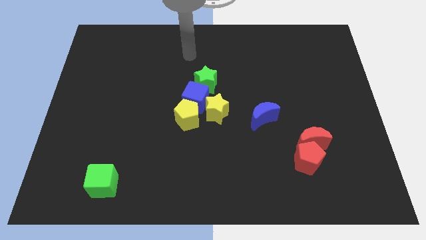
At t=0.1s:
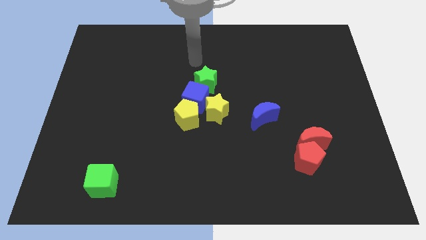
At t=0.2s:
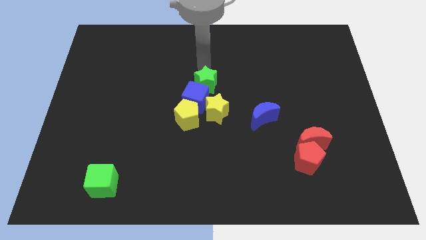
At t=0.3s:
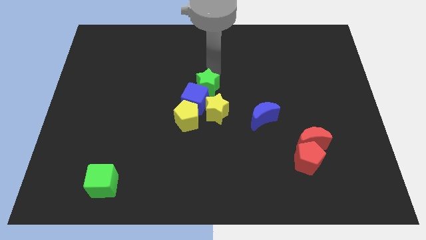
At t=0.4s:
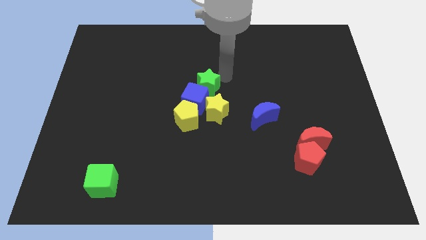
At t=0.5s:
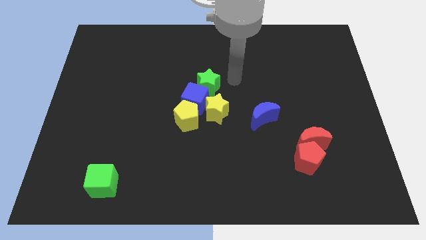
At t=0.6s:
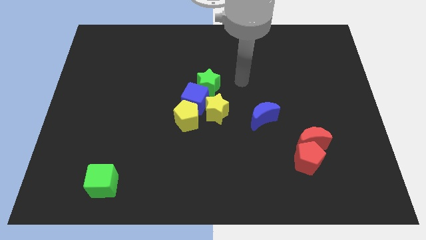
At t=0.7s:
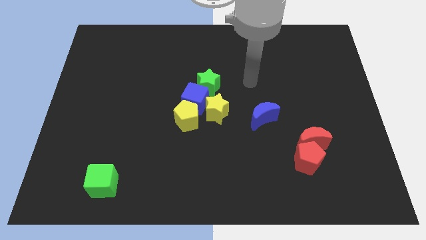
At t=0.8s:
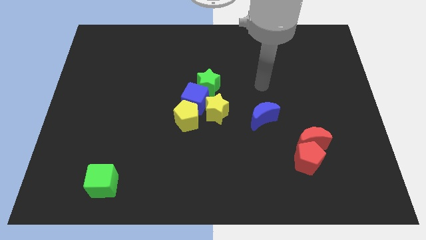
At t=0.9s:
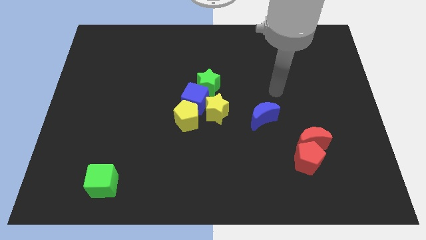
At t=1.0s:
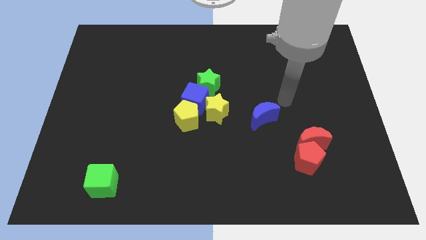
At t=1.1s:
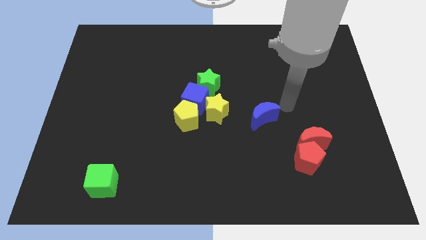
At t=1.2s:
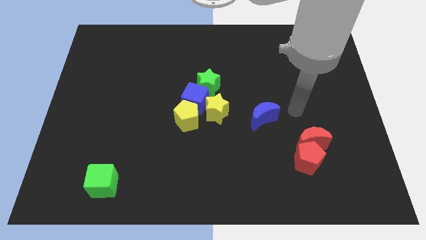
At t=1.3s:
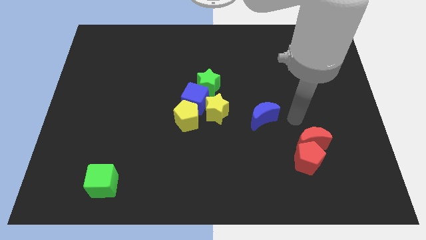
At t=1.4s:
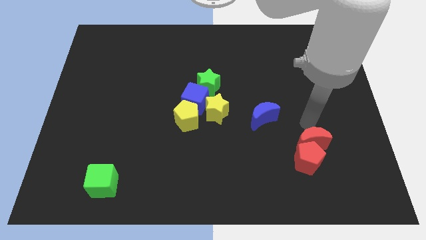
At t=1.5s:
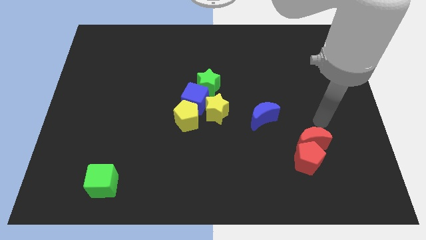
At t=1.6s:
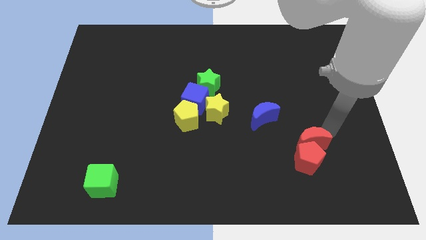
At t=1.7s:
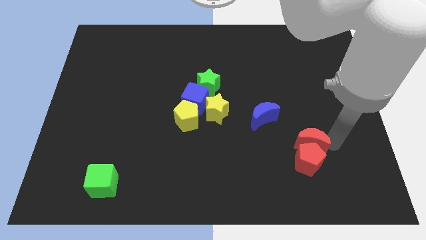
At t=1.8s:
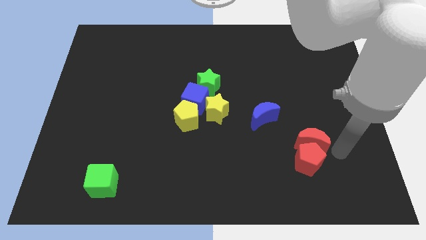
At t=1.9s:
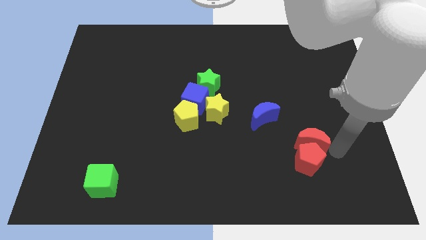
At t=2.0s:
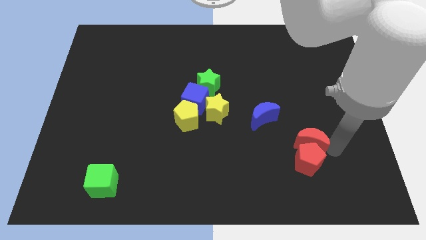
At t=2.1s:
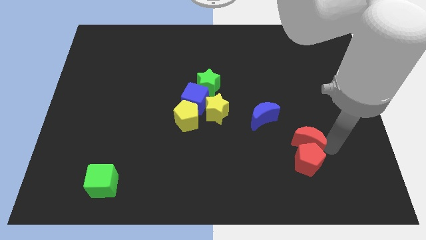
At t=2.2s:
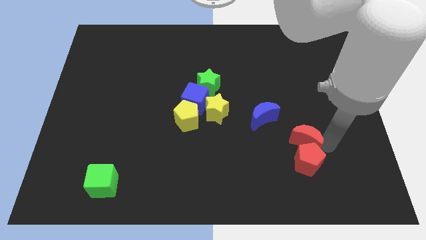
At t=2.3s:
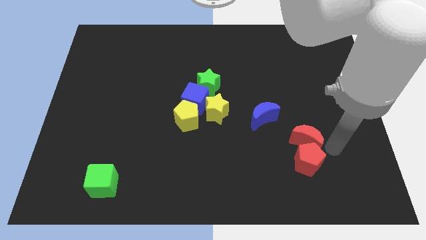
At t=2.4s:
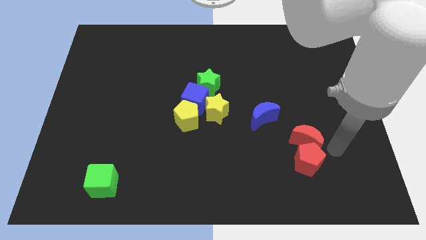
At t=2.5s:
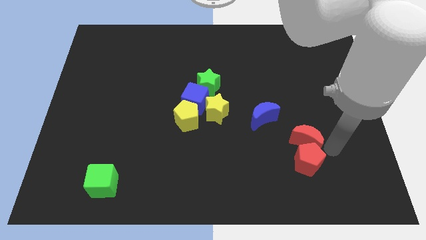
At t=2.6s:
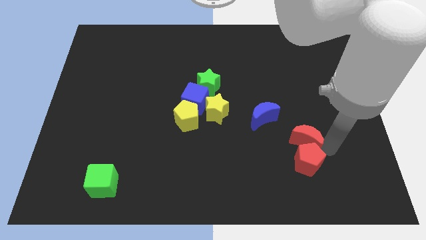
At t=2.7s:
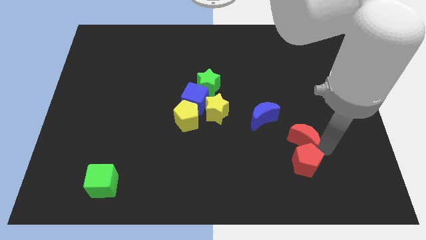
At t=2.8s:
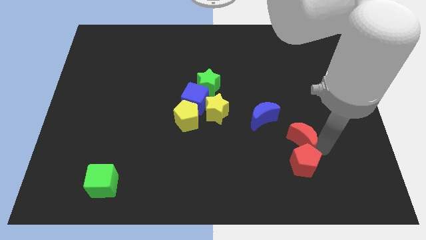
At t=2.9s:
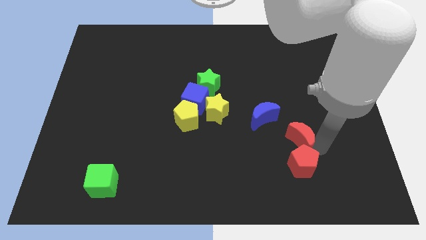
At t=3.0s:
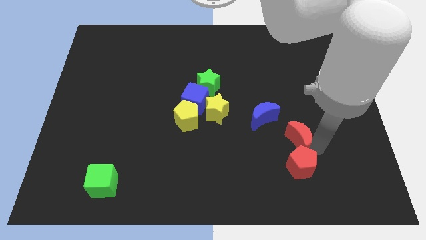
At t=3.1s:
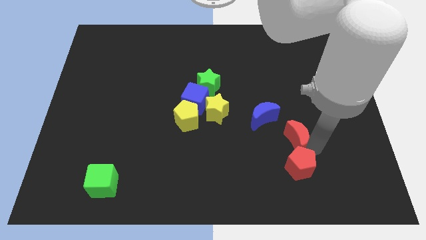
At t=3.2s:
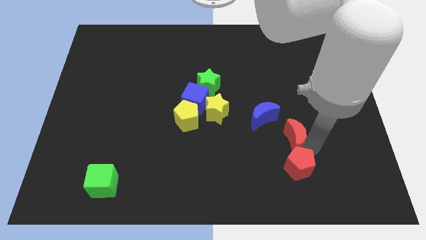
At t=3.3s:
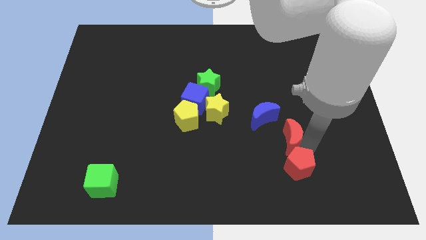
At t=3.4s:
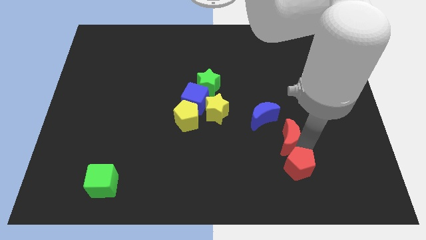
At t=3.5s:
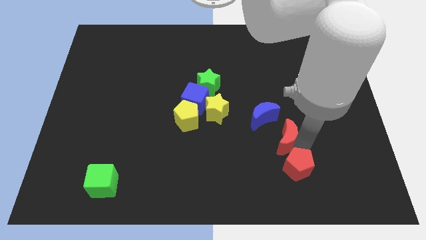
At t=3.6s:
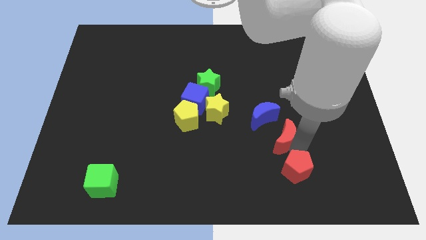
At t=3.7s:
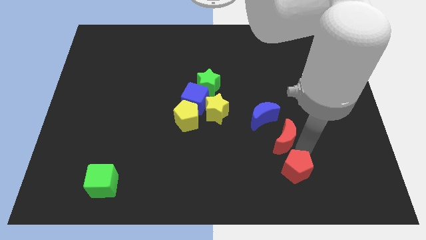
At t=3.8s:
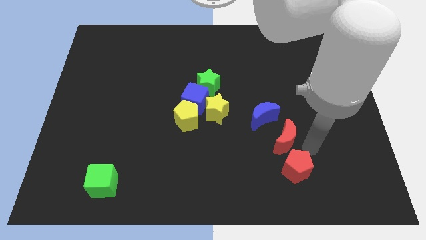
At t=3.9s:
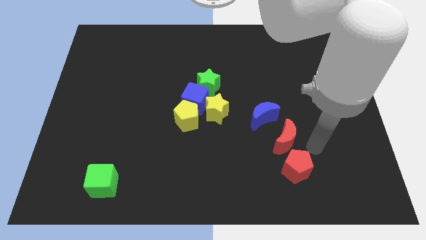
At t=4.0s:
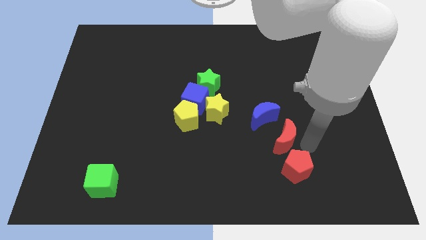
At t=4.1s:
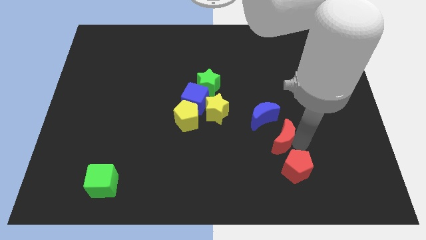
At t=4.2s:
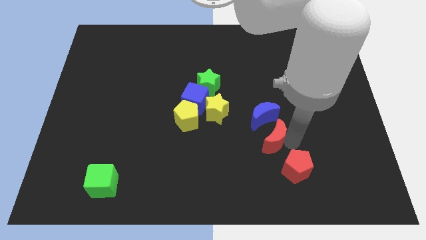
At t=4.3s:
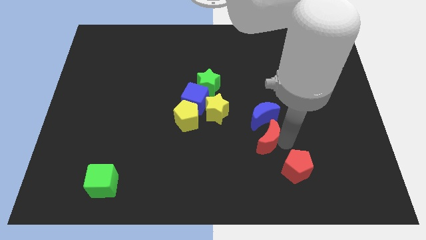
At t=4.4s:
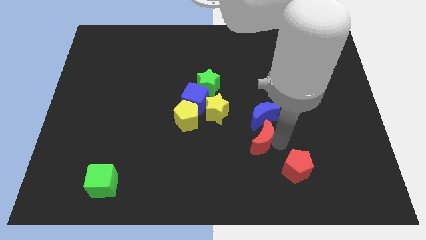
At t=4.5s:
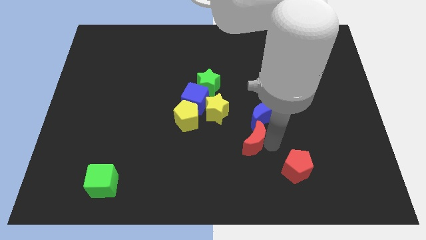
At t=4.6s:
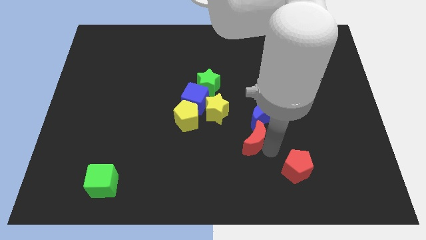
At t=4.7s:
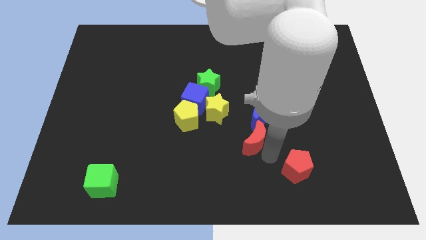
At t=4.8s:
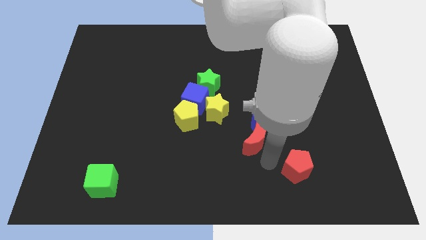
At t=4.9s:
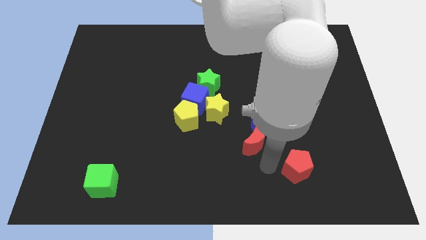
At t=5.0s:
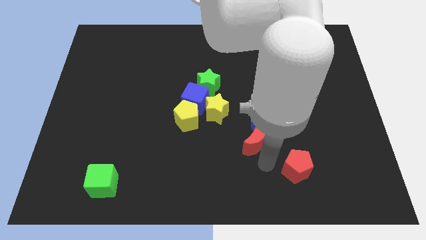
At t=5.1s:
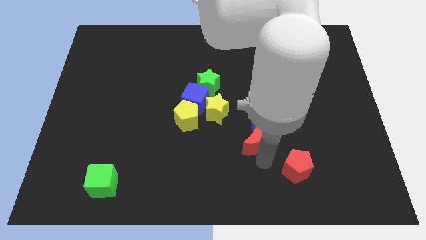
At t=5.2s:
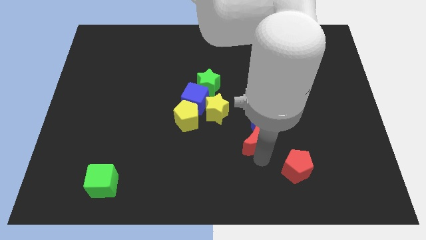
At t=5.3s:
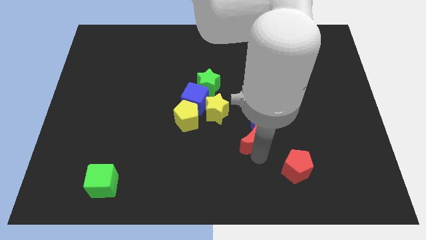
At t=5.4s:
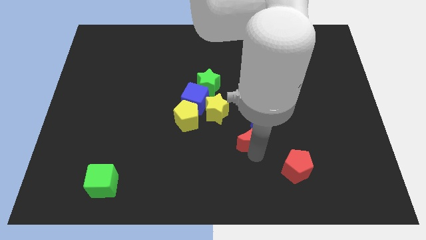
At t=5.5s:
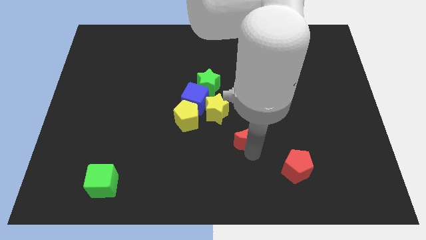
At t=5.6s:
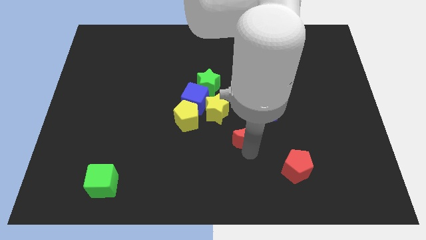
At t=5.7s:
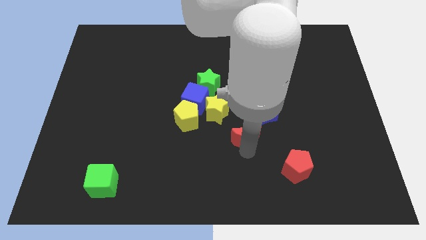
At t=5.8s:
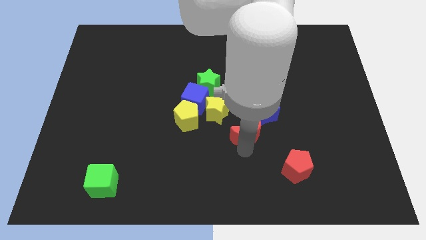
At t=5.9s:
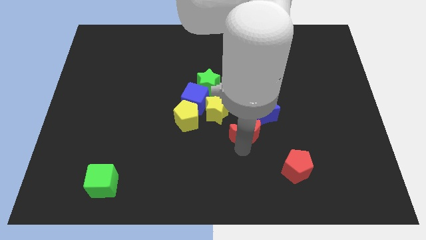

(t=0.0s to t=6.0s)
put the red moon just right of the yellow pentagon
